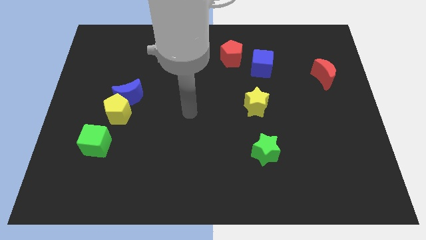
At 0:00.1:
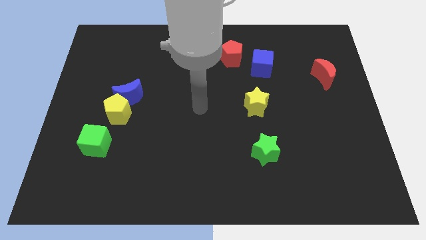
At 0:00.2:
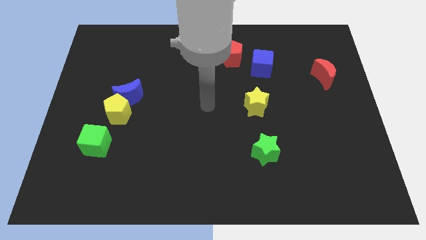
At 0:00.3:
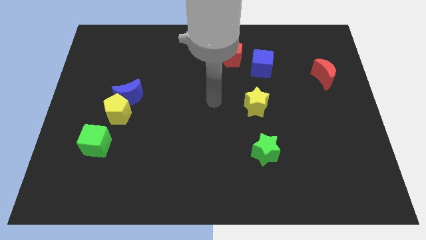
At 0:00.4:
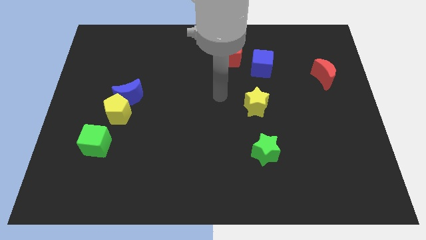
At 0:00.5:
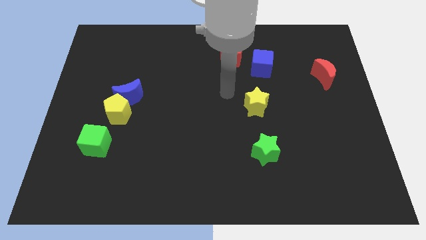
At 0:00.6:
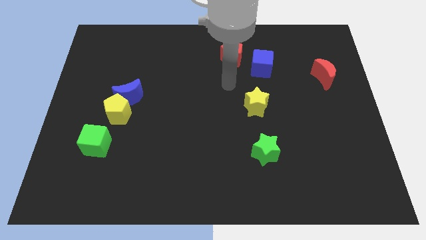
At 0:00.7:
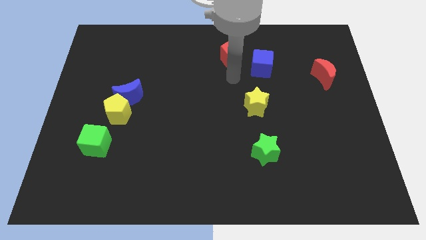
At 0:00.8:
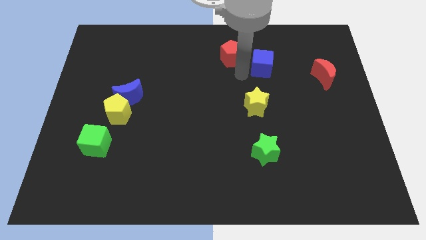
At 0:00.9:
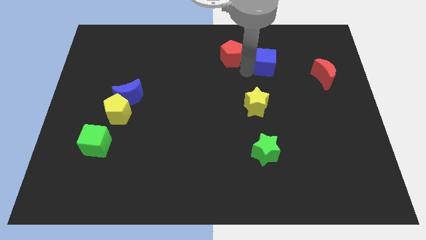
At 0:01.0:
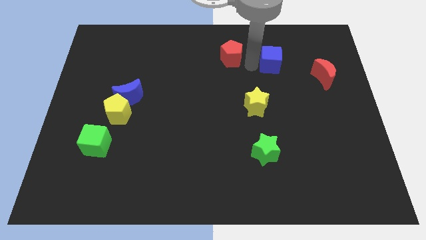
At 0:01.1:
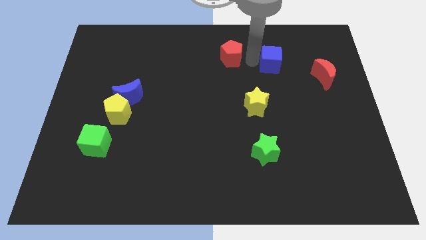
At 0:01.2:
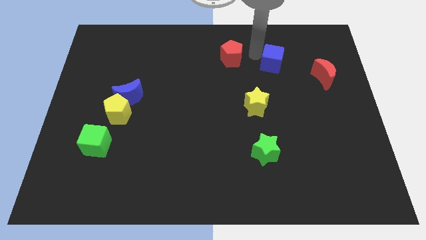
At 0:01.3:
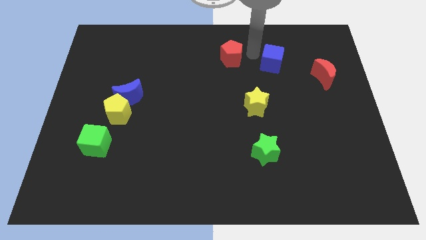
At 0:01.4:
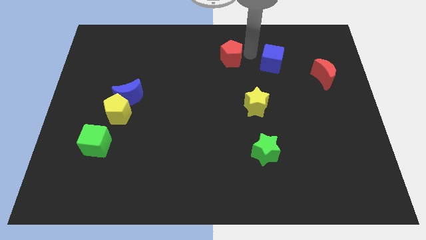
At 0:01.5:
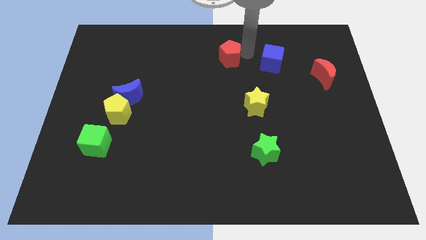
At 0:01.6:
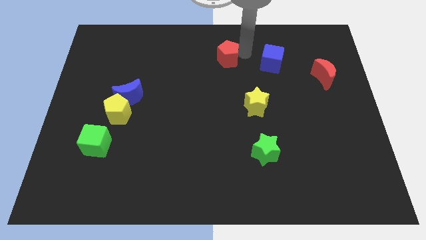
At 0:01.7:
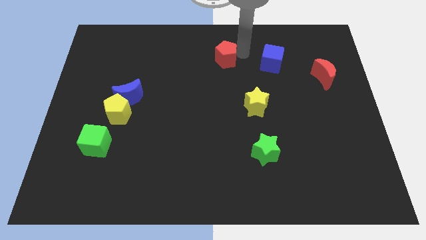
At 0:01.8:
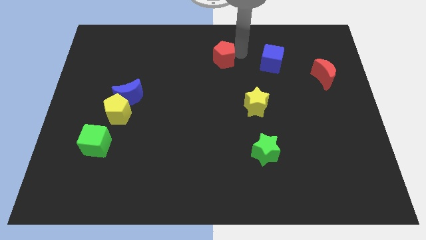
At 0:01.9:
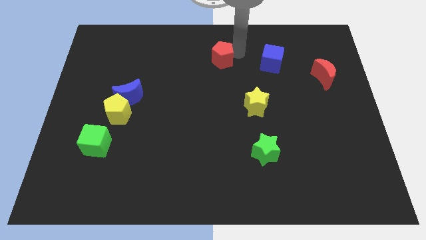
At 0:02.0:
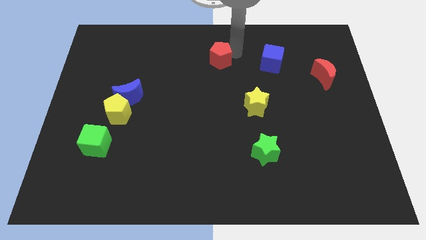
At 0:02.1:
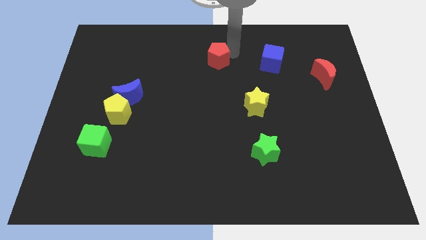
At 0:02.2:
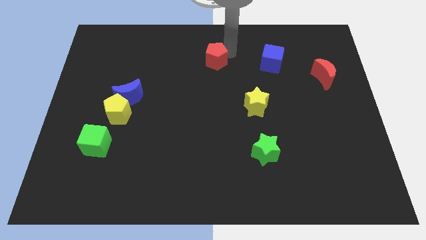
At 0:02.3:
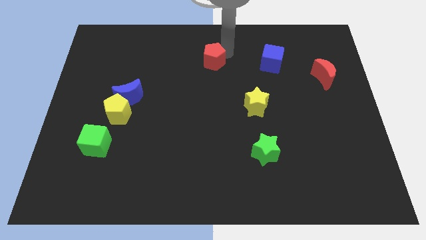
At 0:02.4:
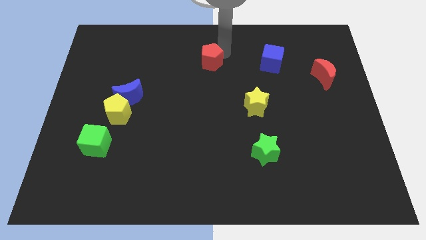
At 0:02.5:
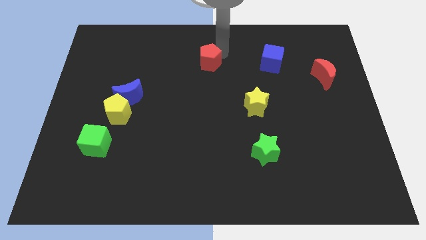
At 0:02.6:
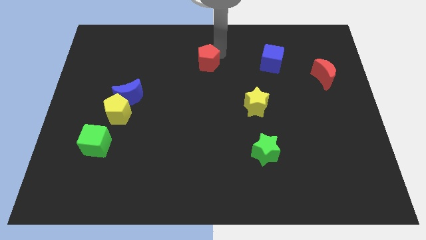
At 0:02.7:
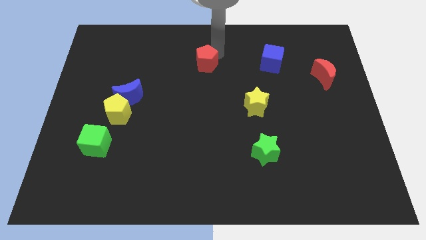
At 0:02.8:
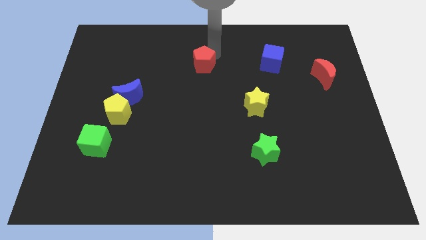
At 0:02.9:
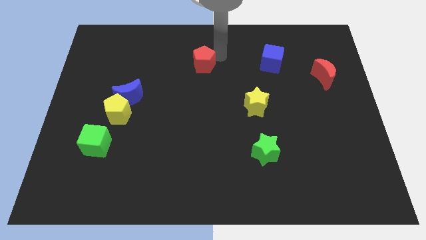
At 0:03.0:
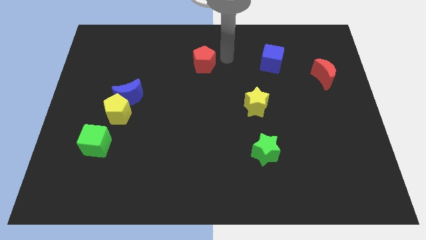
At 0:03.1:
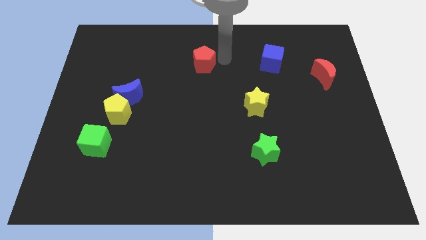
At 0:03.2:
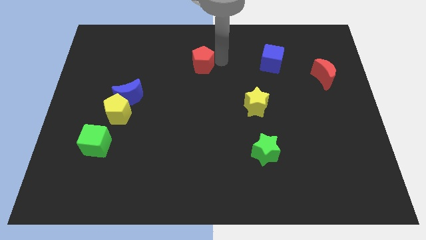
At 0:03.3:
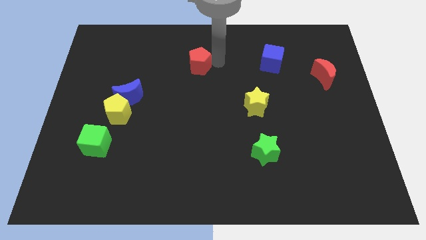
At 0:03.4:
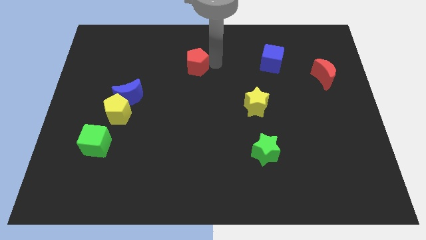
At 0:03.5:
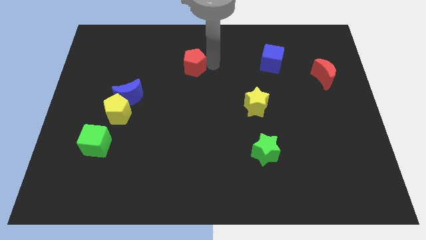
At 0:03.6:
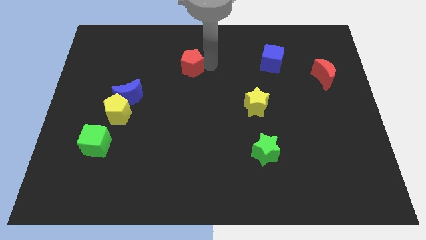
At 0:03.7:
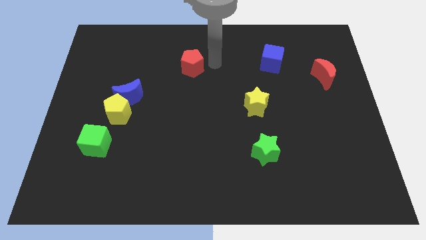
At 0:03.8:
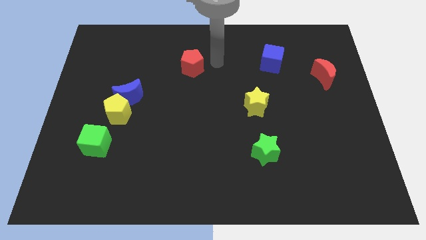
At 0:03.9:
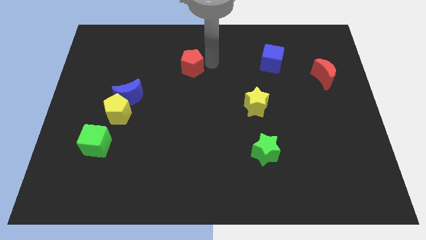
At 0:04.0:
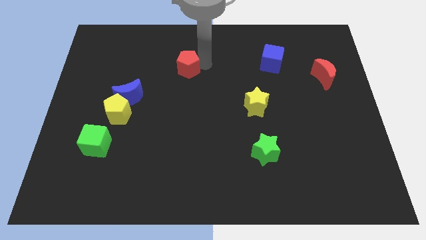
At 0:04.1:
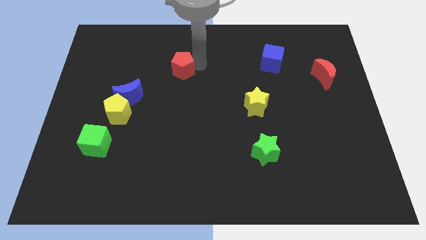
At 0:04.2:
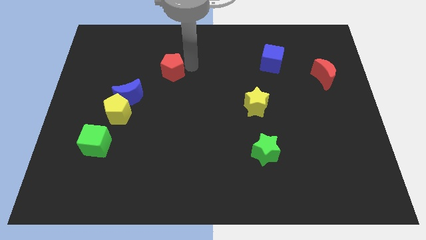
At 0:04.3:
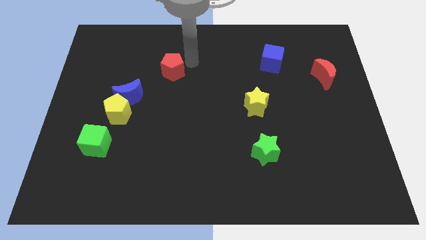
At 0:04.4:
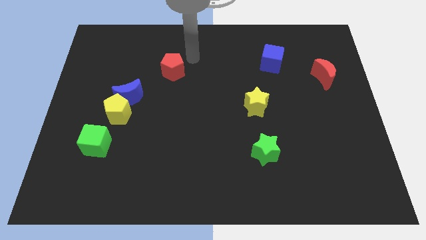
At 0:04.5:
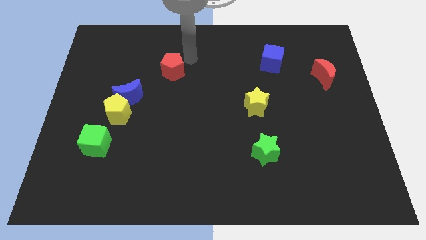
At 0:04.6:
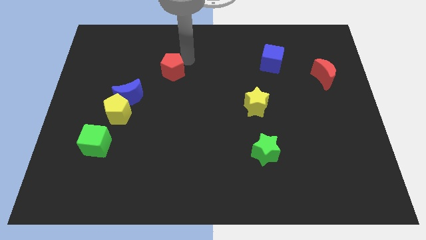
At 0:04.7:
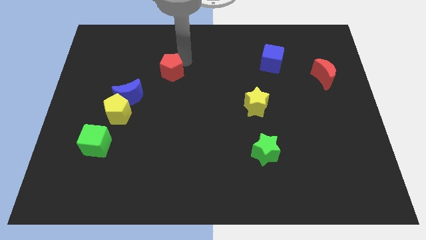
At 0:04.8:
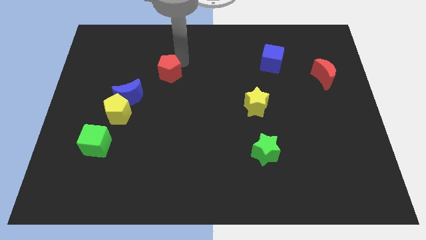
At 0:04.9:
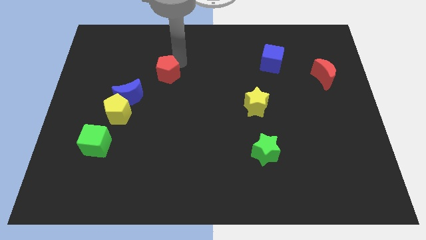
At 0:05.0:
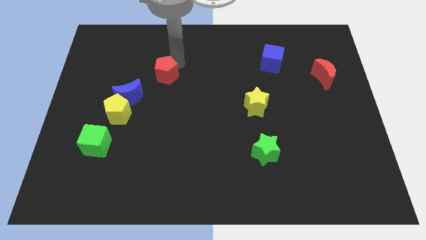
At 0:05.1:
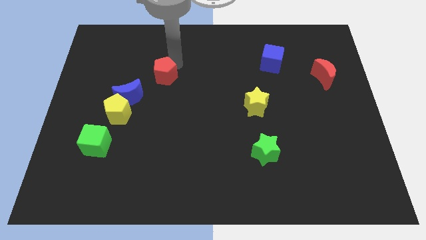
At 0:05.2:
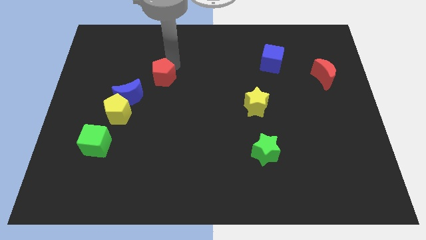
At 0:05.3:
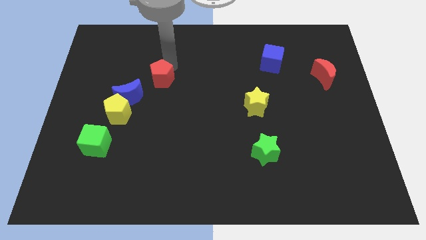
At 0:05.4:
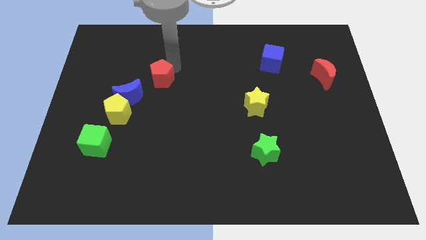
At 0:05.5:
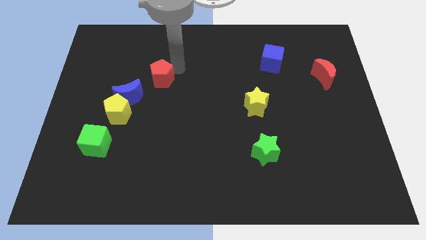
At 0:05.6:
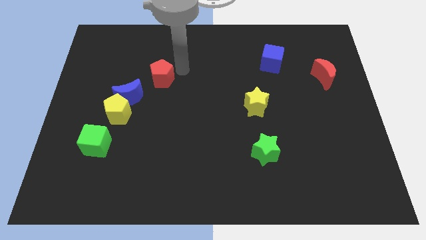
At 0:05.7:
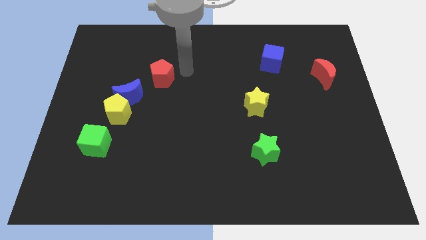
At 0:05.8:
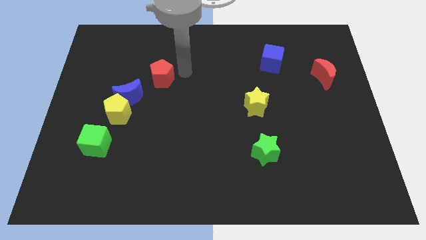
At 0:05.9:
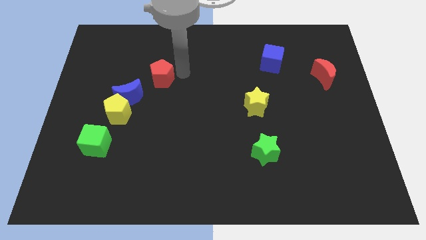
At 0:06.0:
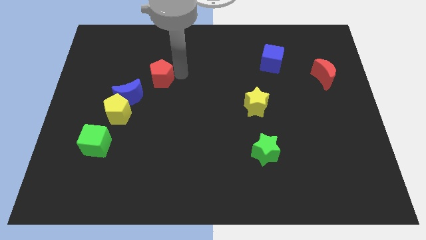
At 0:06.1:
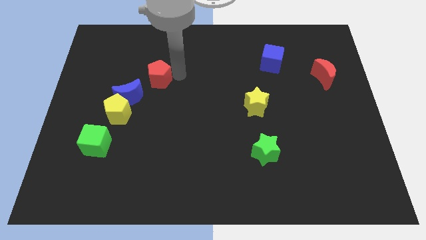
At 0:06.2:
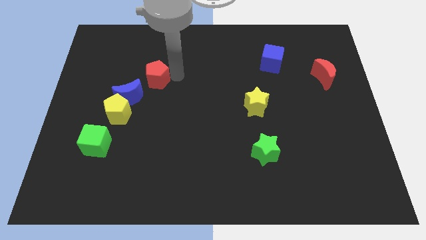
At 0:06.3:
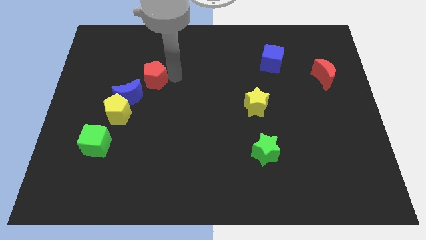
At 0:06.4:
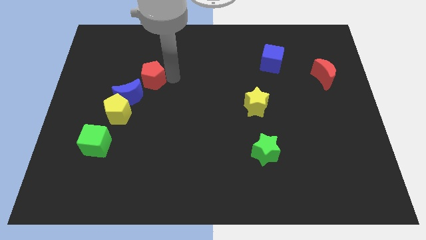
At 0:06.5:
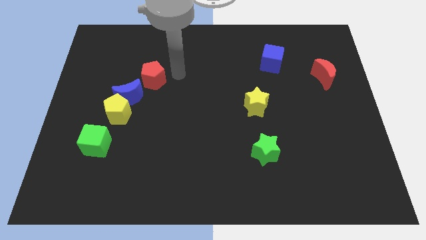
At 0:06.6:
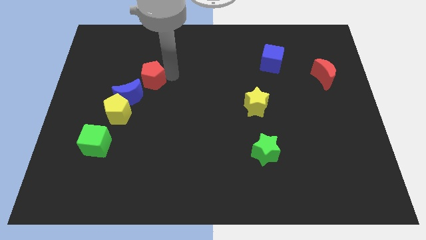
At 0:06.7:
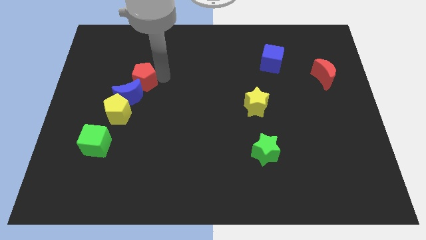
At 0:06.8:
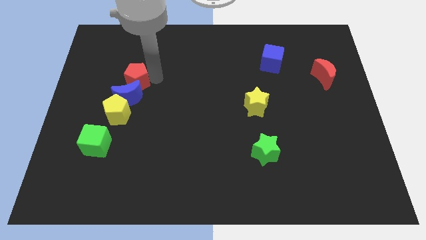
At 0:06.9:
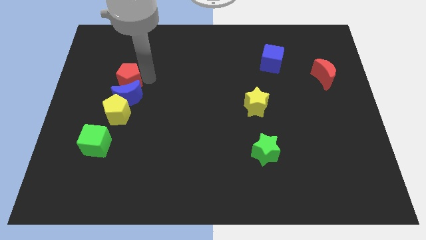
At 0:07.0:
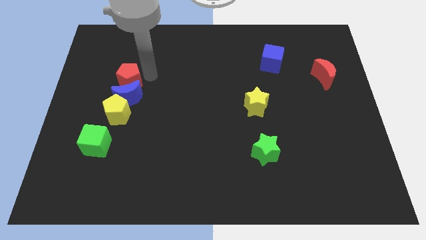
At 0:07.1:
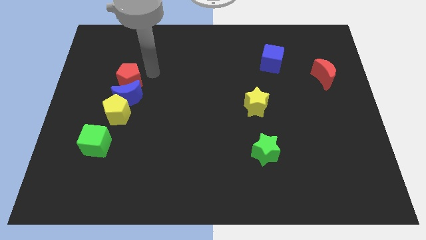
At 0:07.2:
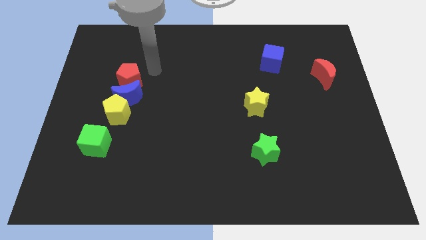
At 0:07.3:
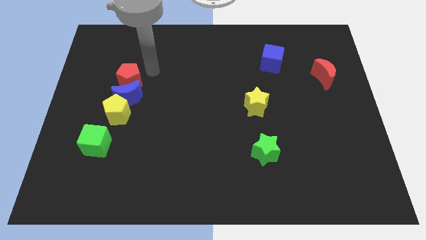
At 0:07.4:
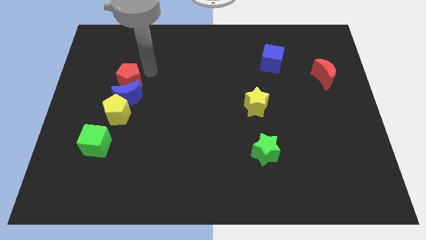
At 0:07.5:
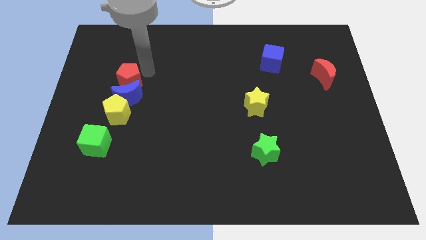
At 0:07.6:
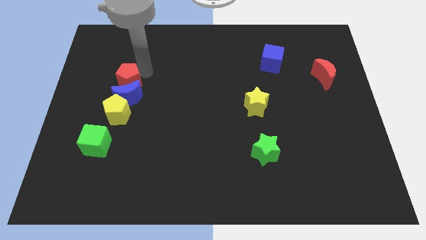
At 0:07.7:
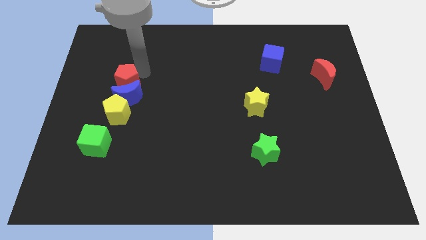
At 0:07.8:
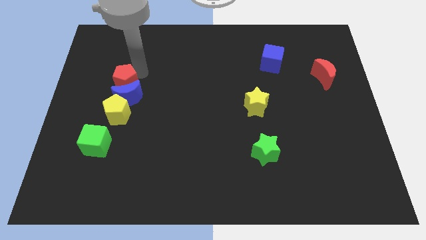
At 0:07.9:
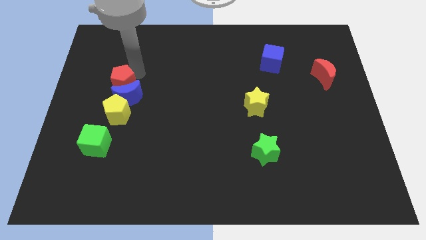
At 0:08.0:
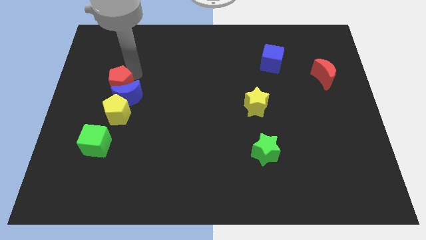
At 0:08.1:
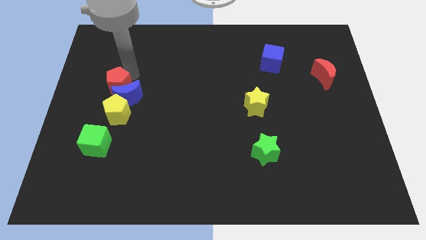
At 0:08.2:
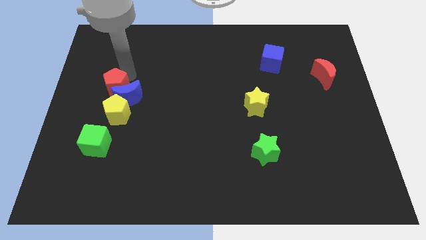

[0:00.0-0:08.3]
slide the red pentagon diagonally up and to the left of the yellow pentagon
